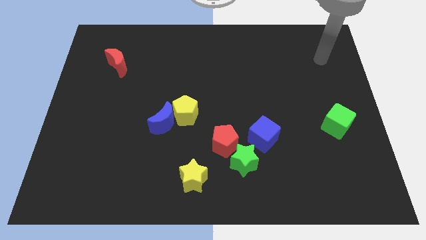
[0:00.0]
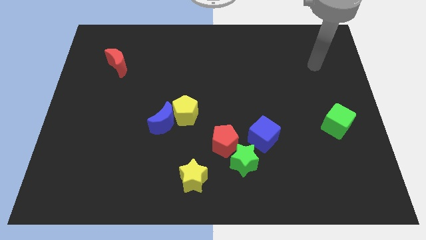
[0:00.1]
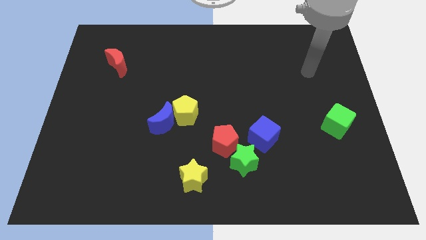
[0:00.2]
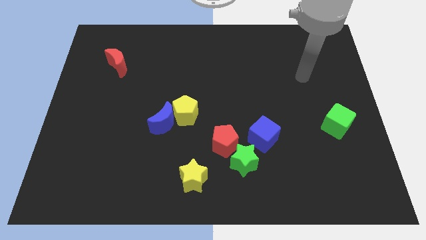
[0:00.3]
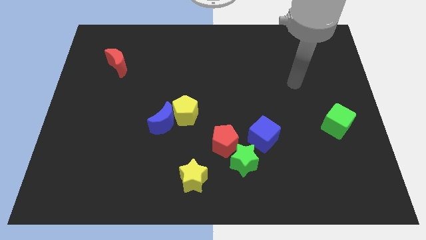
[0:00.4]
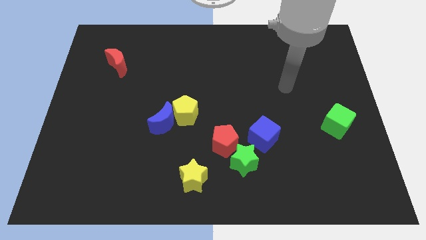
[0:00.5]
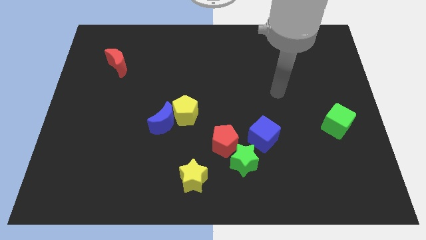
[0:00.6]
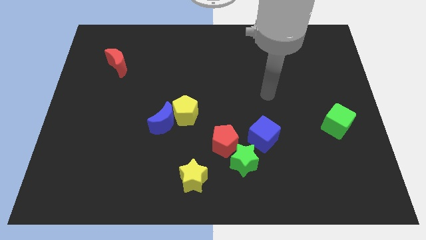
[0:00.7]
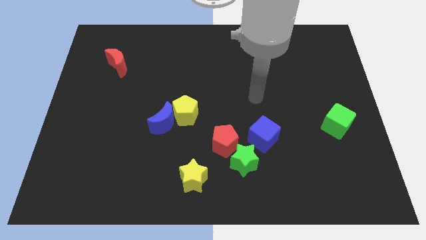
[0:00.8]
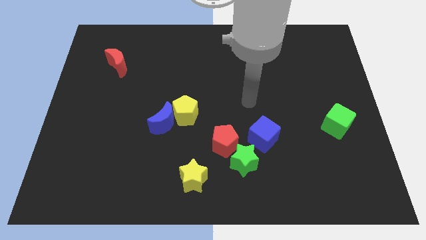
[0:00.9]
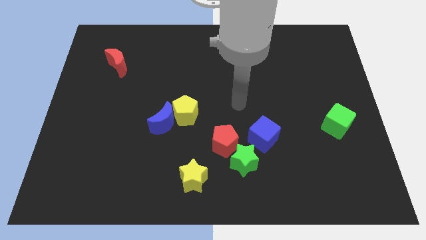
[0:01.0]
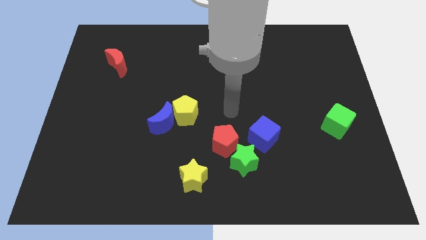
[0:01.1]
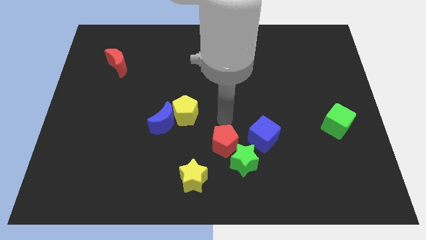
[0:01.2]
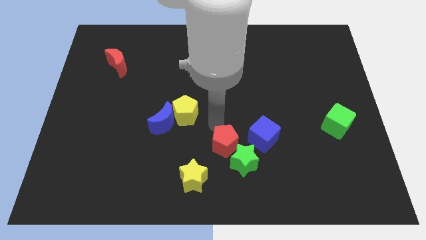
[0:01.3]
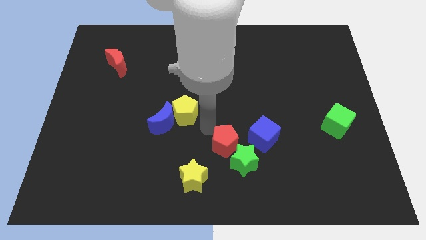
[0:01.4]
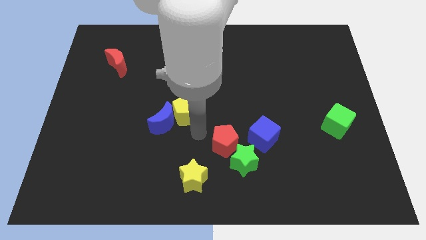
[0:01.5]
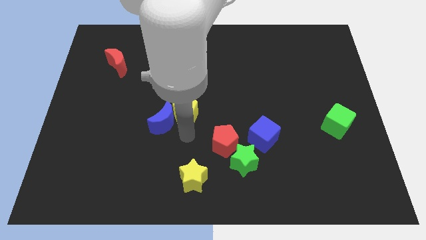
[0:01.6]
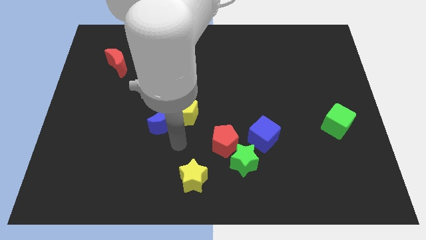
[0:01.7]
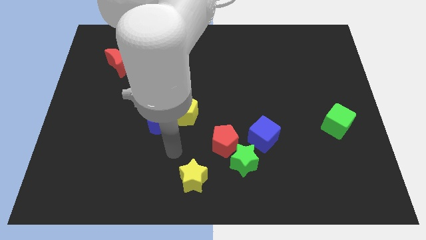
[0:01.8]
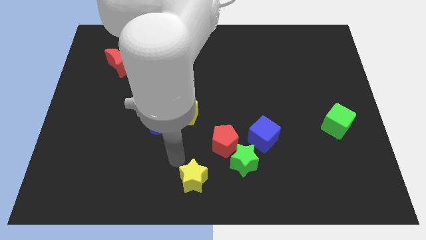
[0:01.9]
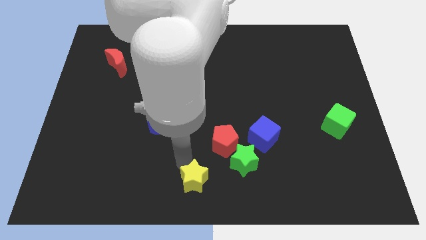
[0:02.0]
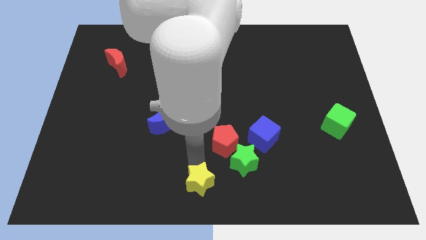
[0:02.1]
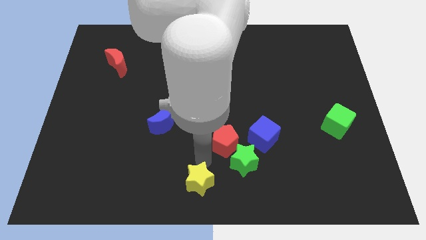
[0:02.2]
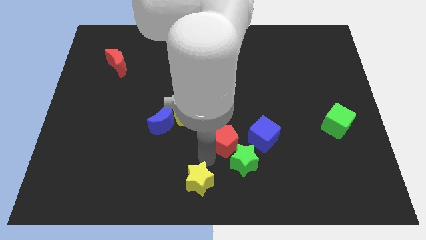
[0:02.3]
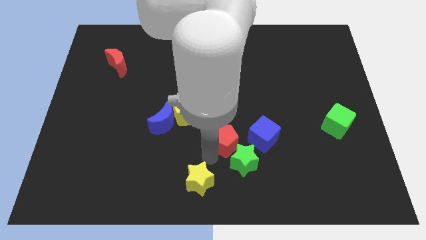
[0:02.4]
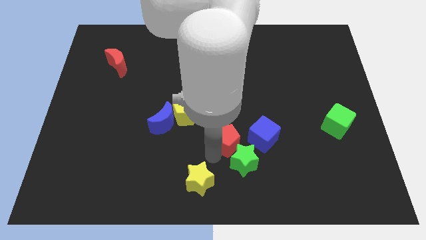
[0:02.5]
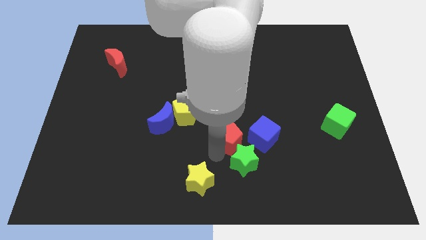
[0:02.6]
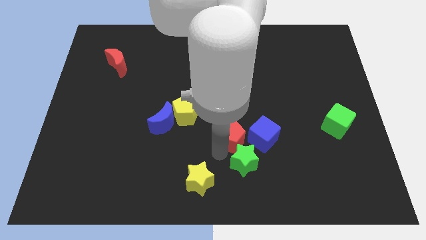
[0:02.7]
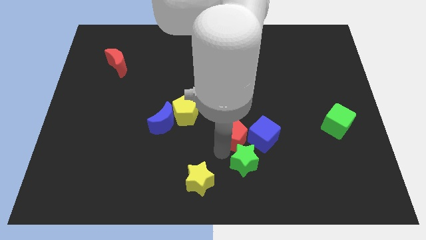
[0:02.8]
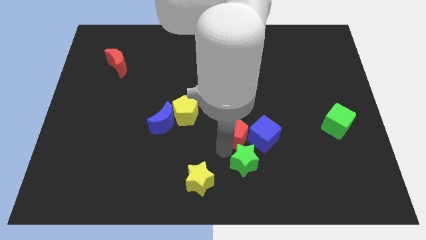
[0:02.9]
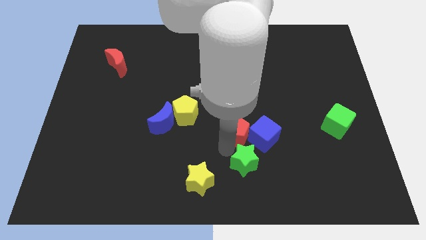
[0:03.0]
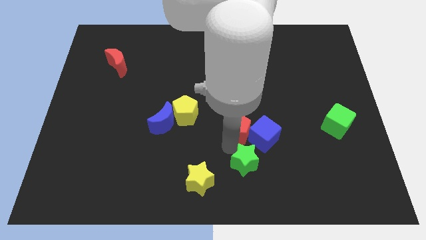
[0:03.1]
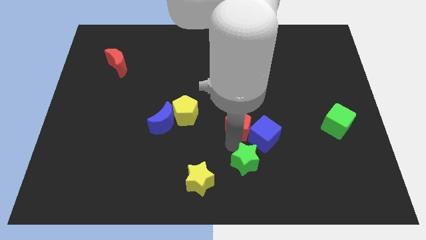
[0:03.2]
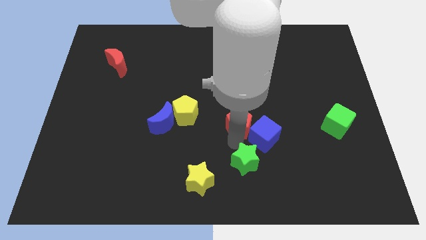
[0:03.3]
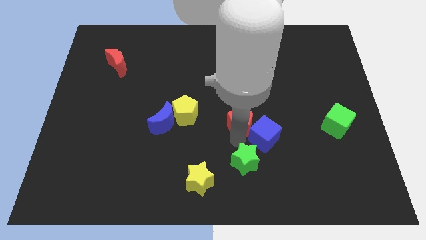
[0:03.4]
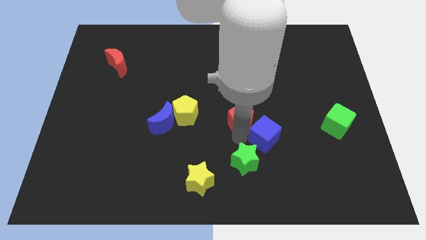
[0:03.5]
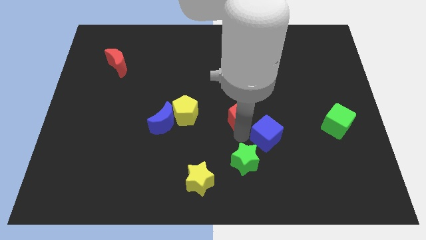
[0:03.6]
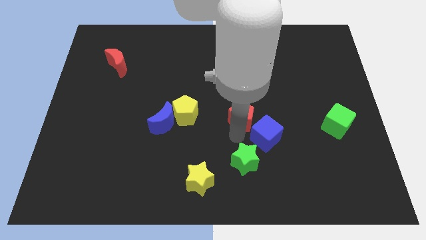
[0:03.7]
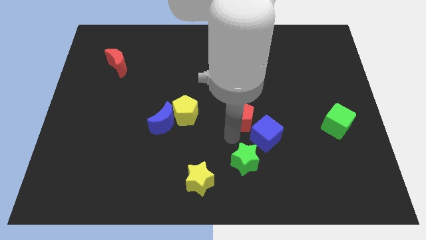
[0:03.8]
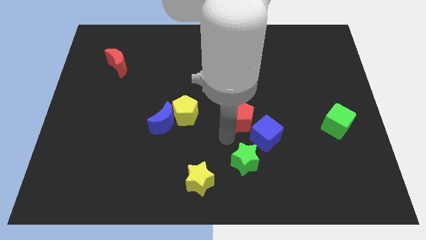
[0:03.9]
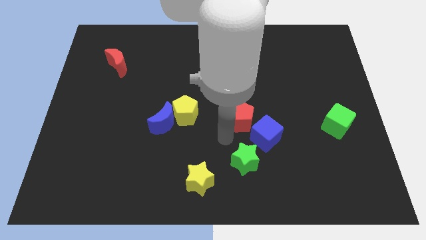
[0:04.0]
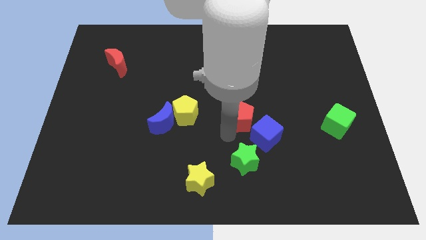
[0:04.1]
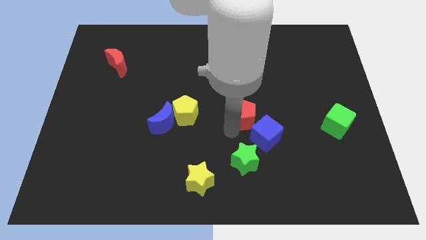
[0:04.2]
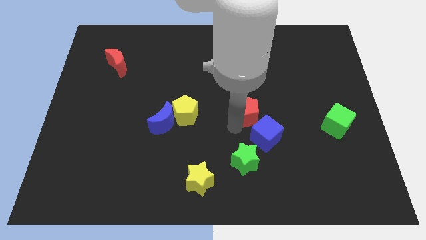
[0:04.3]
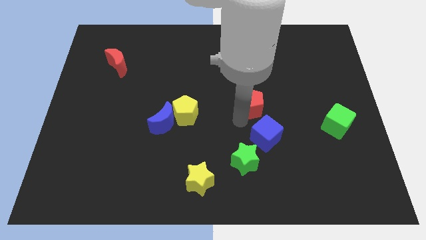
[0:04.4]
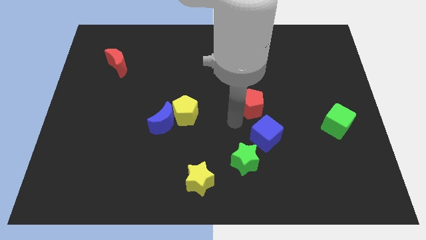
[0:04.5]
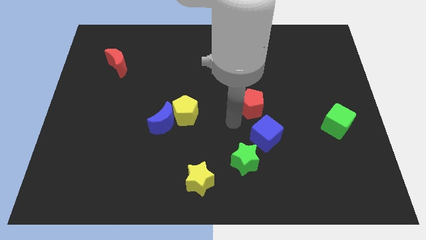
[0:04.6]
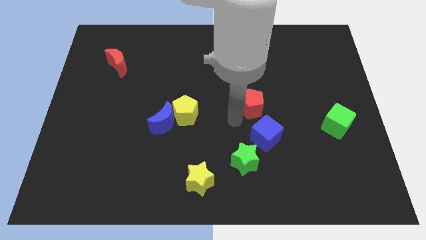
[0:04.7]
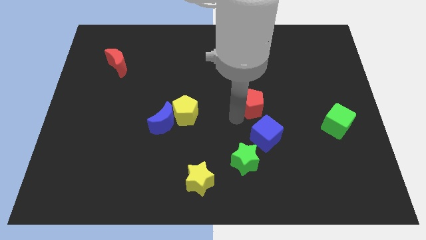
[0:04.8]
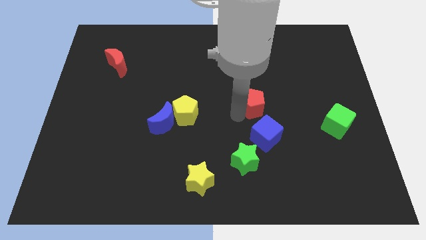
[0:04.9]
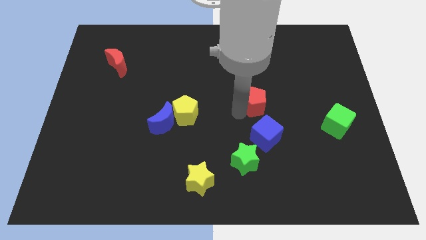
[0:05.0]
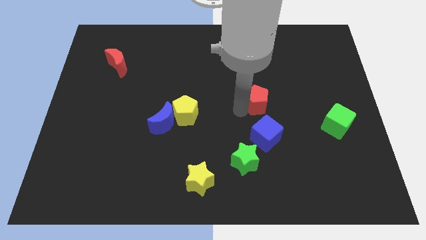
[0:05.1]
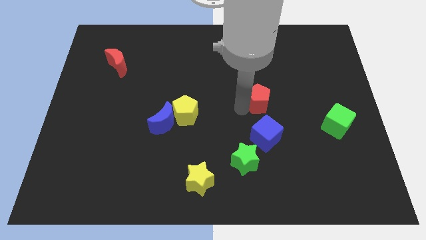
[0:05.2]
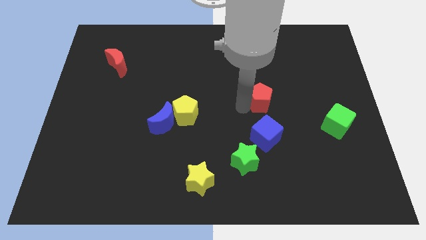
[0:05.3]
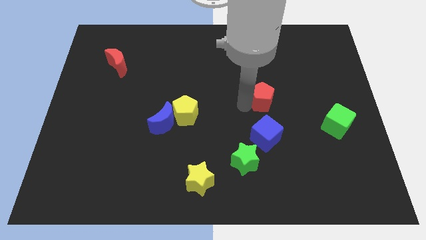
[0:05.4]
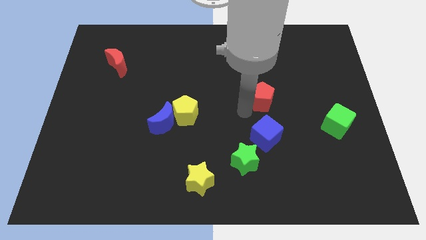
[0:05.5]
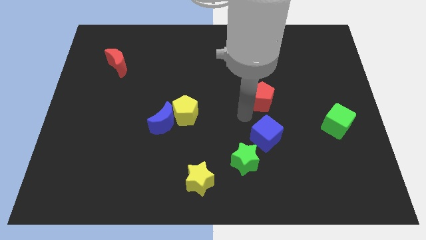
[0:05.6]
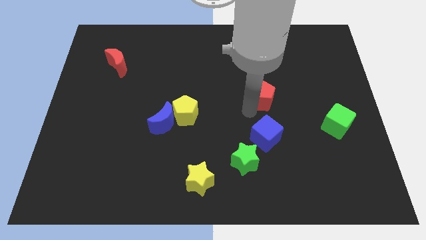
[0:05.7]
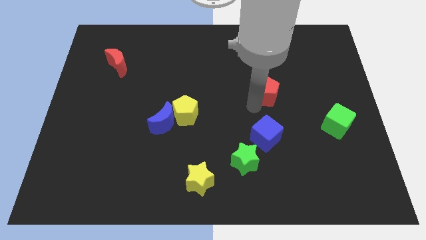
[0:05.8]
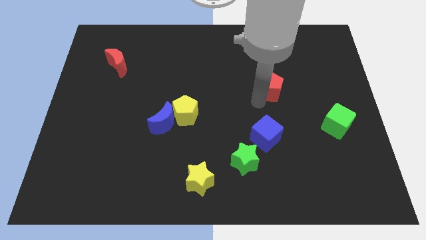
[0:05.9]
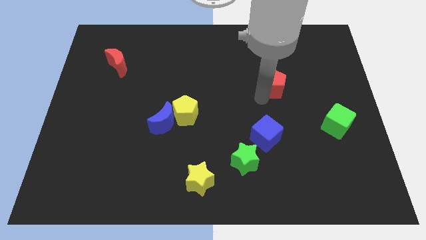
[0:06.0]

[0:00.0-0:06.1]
move the red pentagon diagonally upwards and right

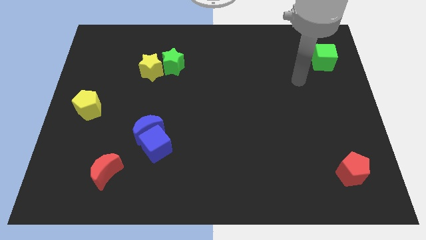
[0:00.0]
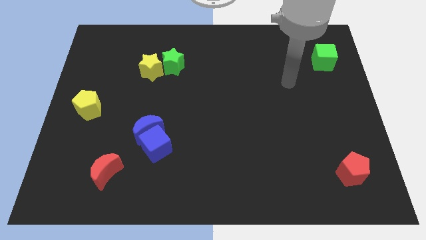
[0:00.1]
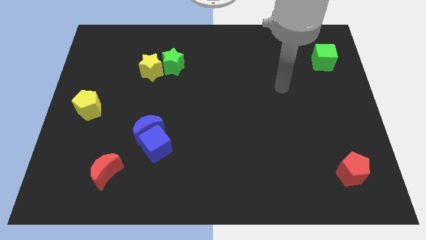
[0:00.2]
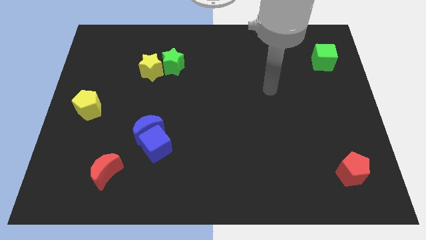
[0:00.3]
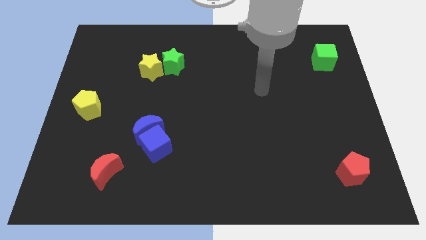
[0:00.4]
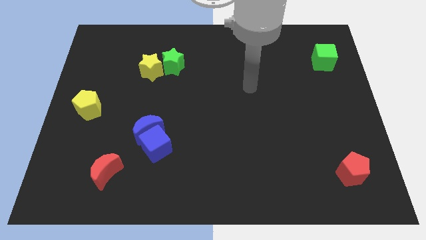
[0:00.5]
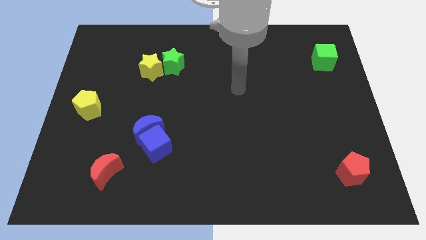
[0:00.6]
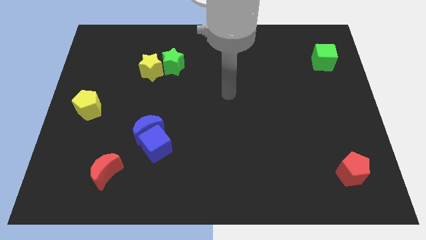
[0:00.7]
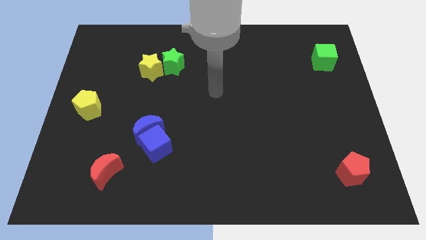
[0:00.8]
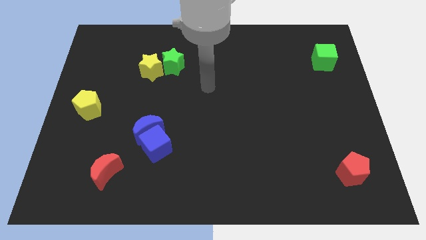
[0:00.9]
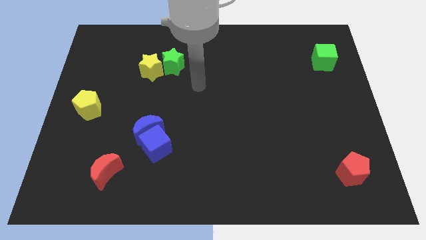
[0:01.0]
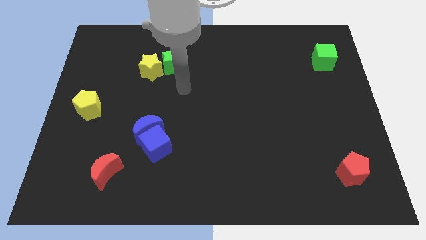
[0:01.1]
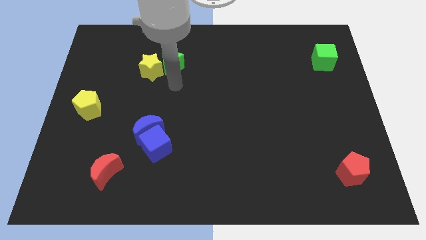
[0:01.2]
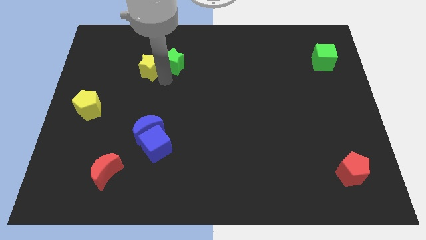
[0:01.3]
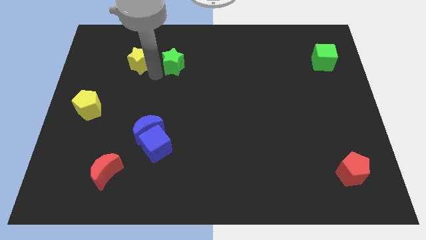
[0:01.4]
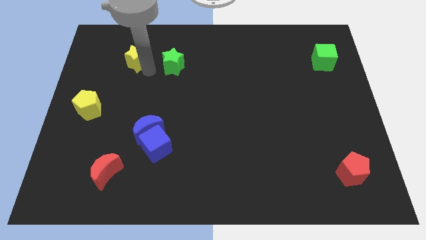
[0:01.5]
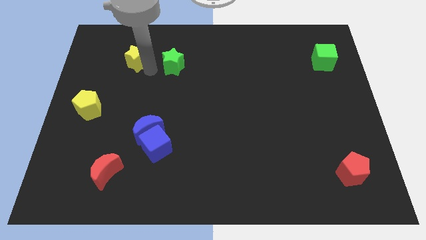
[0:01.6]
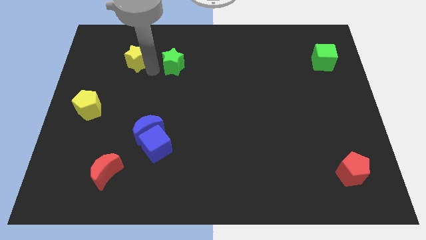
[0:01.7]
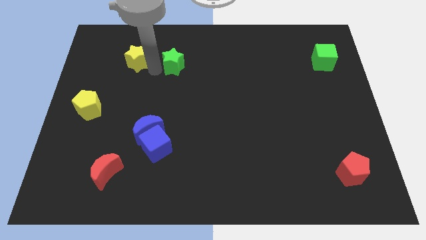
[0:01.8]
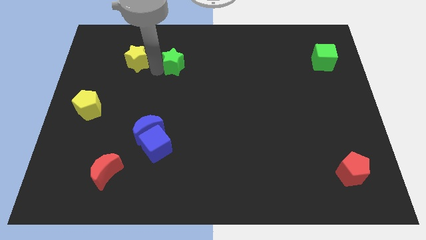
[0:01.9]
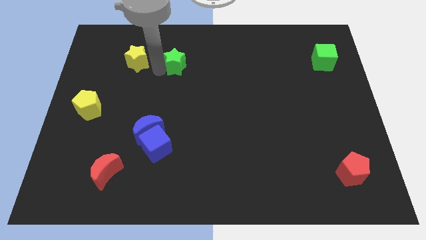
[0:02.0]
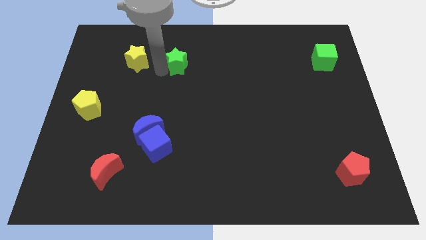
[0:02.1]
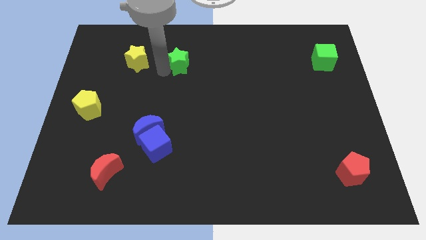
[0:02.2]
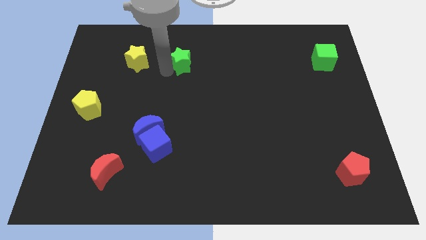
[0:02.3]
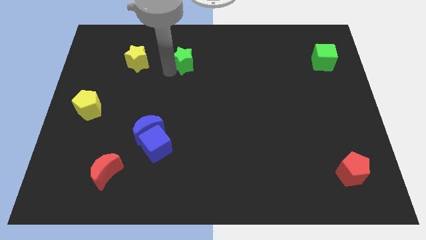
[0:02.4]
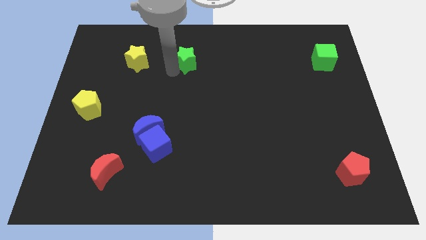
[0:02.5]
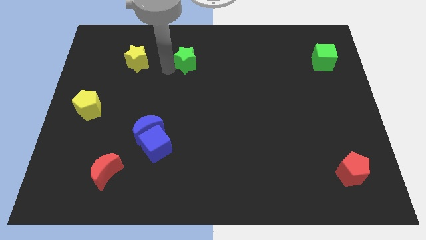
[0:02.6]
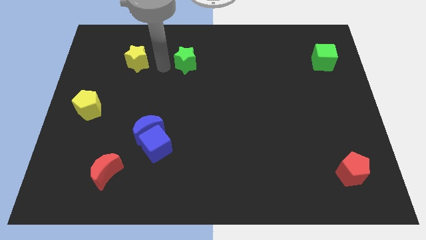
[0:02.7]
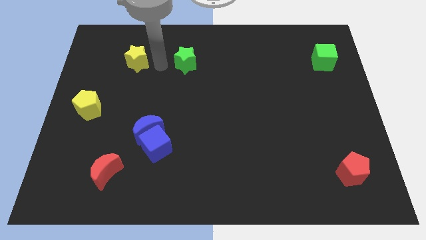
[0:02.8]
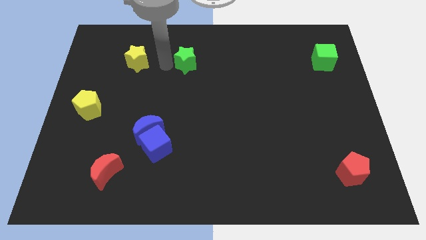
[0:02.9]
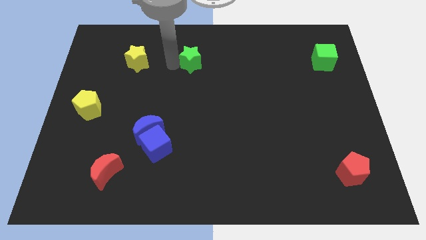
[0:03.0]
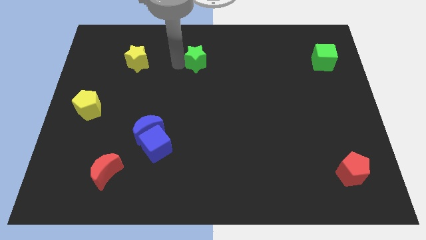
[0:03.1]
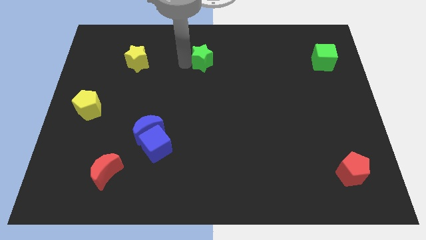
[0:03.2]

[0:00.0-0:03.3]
move the green star a bit to the right
